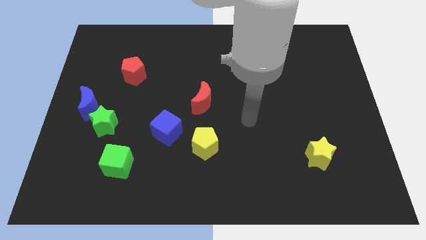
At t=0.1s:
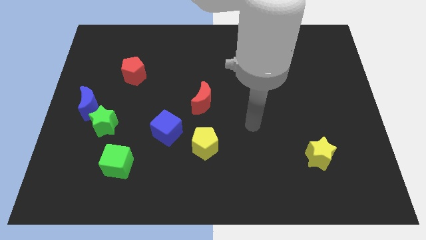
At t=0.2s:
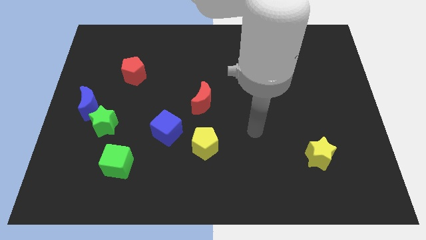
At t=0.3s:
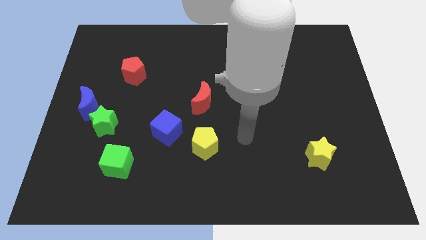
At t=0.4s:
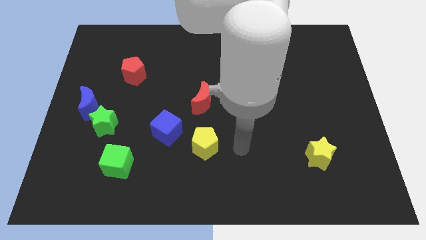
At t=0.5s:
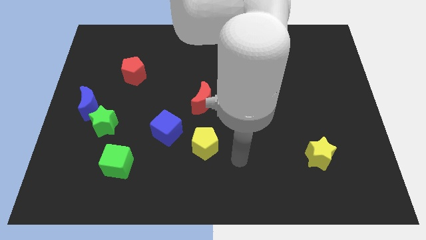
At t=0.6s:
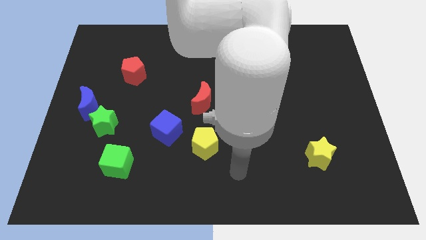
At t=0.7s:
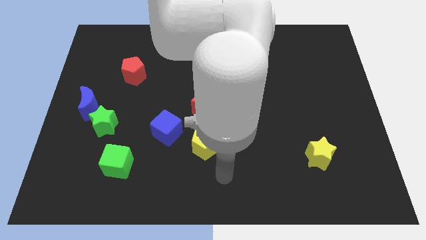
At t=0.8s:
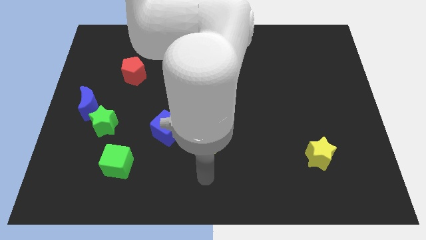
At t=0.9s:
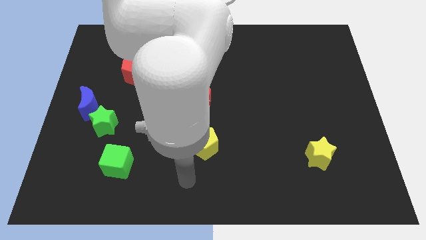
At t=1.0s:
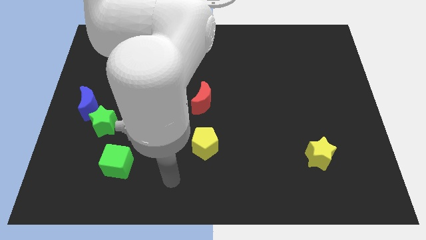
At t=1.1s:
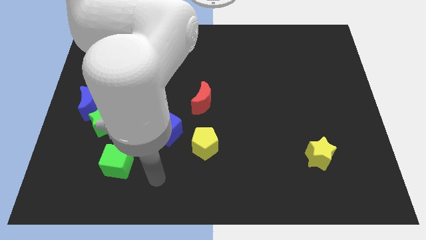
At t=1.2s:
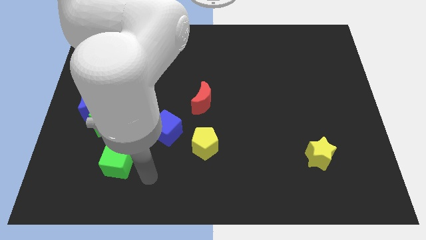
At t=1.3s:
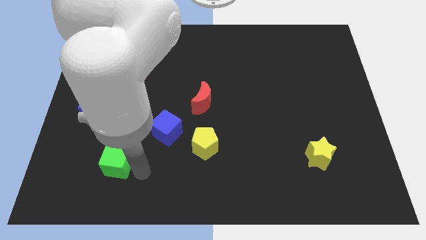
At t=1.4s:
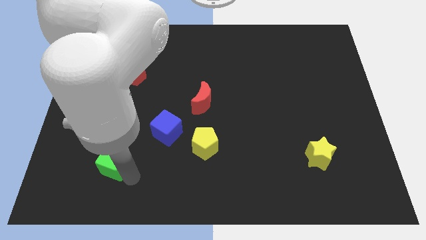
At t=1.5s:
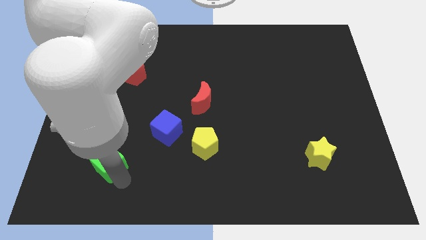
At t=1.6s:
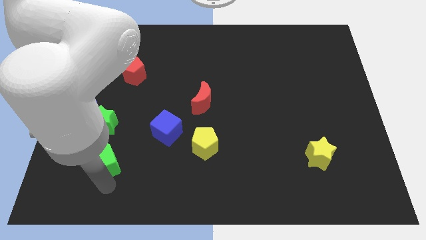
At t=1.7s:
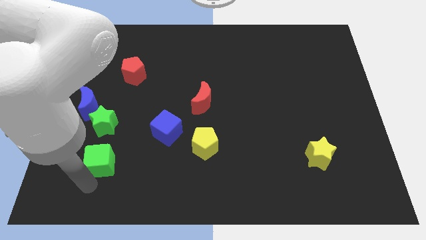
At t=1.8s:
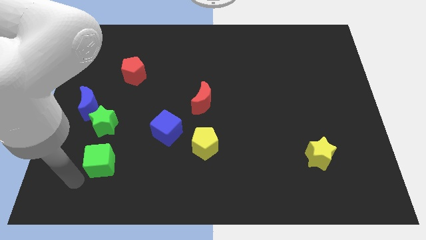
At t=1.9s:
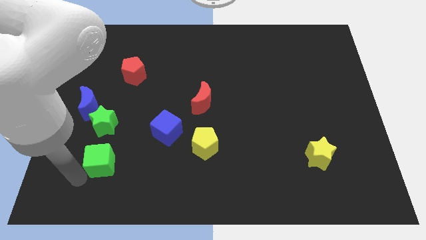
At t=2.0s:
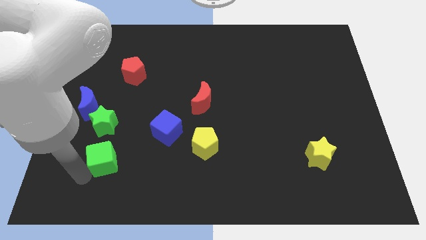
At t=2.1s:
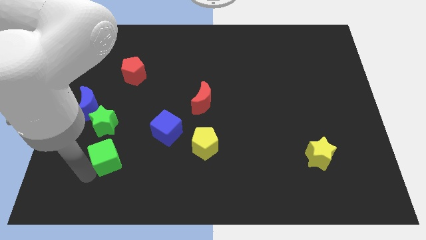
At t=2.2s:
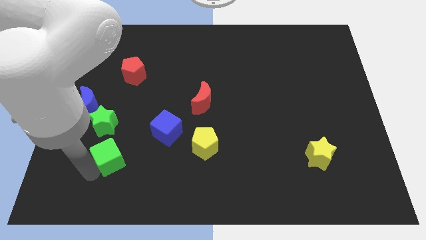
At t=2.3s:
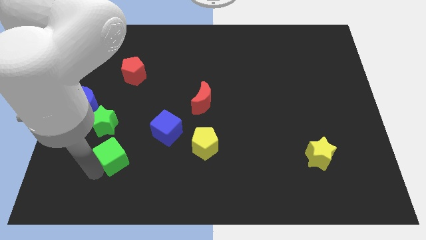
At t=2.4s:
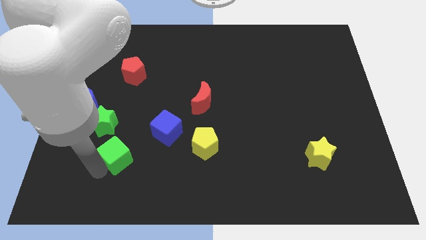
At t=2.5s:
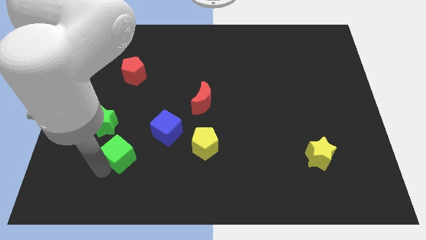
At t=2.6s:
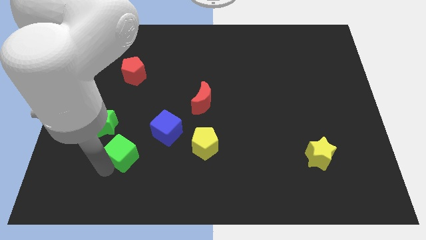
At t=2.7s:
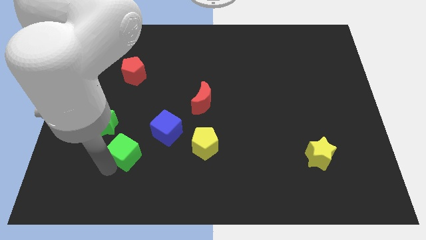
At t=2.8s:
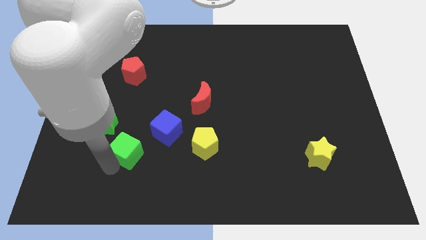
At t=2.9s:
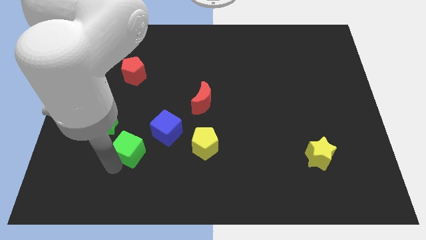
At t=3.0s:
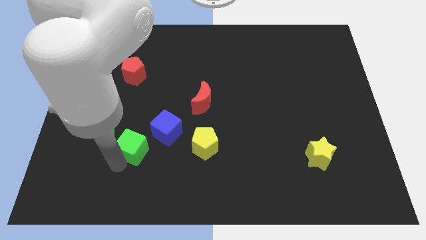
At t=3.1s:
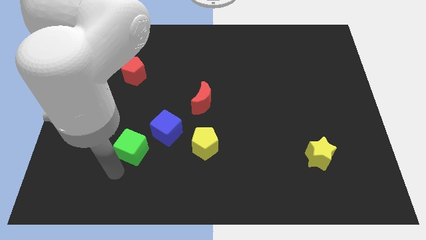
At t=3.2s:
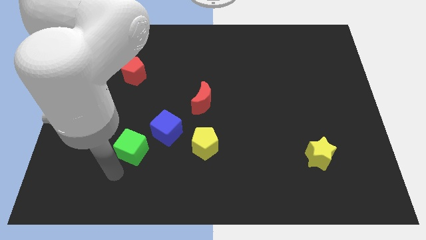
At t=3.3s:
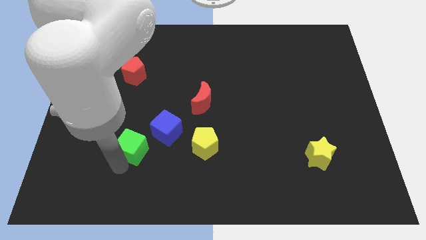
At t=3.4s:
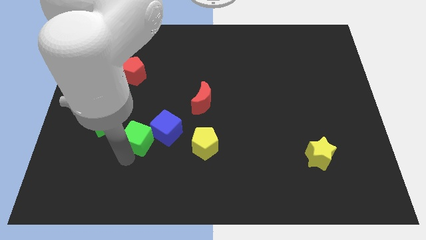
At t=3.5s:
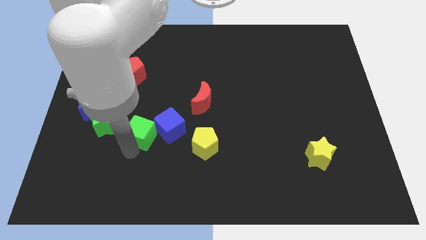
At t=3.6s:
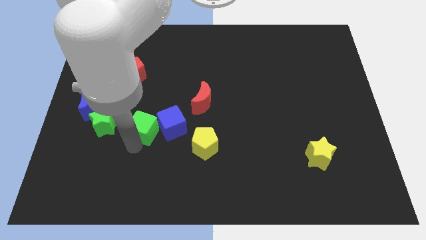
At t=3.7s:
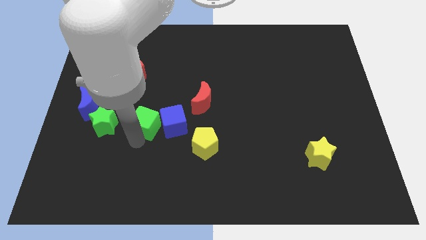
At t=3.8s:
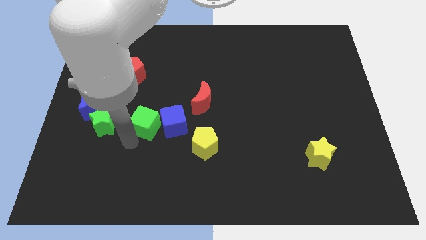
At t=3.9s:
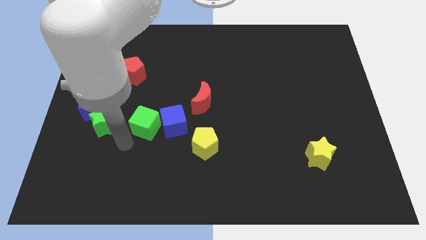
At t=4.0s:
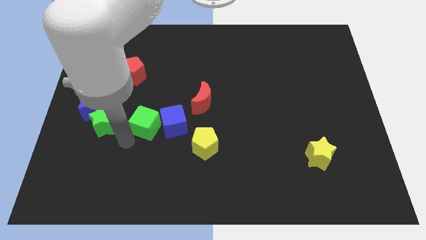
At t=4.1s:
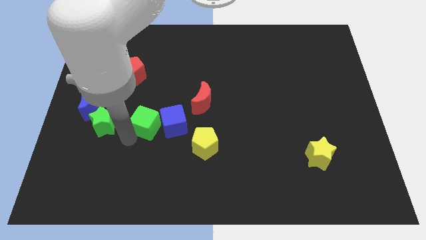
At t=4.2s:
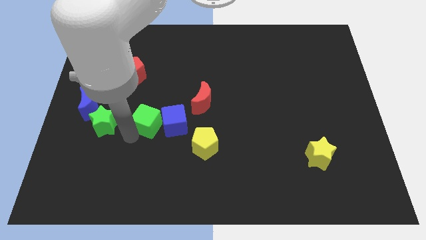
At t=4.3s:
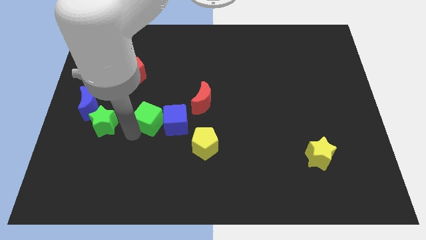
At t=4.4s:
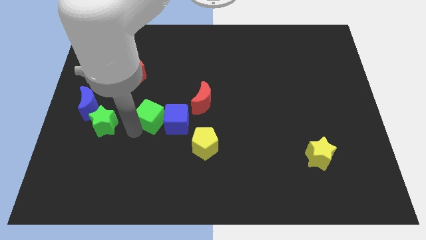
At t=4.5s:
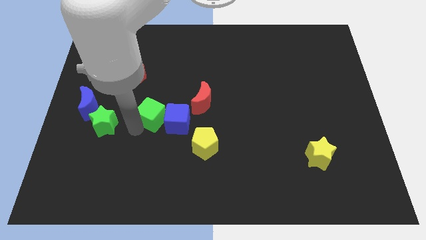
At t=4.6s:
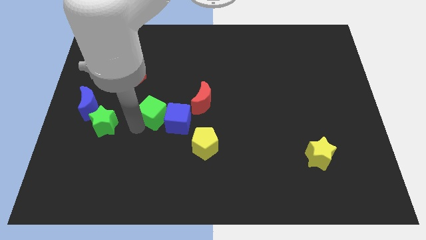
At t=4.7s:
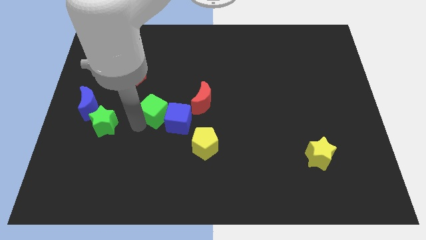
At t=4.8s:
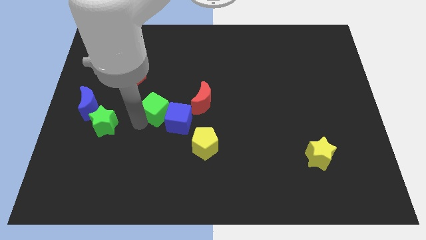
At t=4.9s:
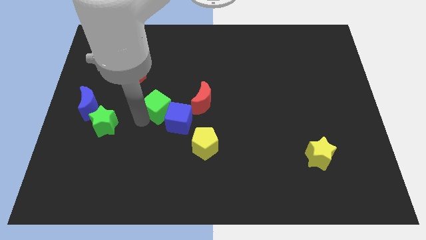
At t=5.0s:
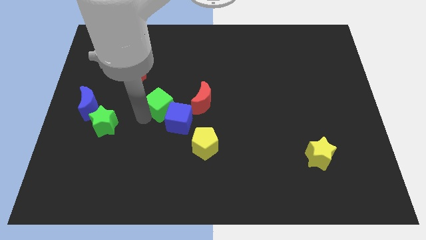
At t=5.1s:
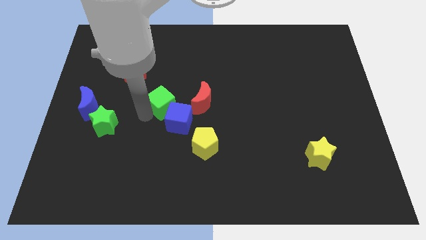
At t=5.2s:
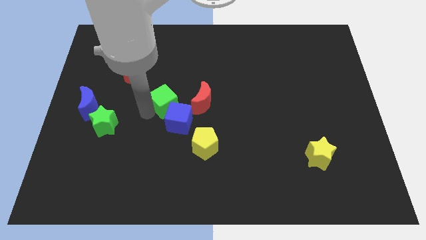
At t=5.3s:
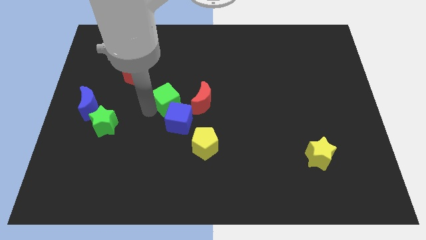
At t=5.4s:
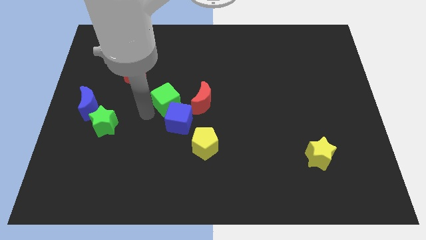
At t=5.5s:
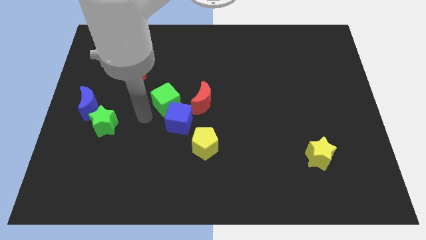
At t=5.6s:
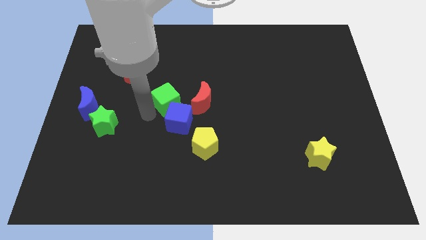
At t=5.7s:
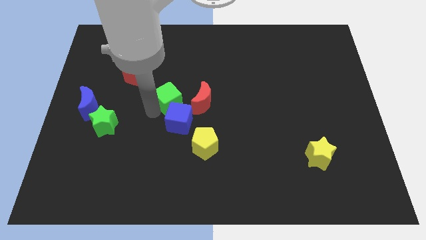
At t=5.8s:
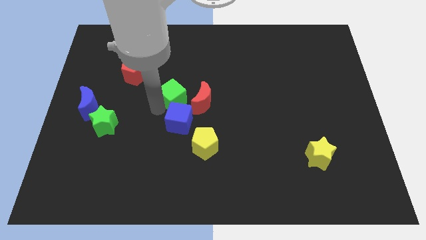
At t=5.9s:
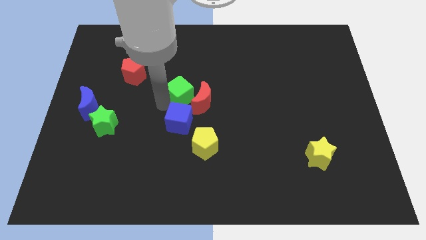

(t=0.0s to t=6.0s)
move the green cube up and to the right diagonally

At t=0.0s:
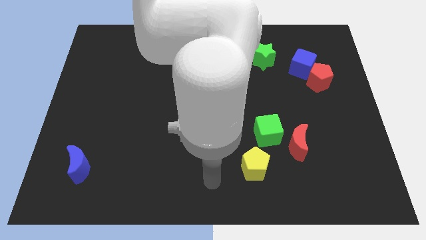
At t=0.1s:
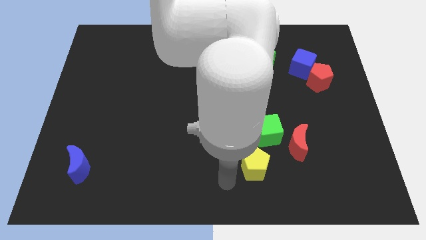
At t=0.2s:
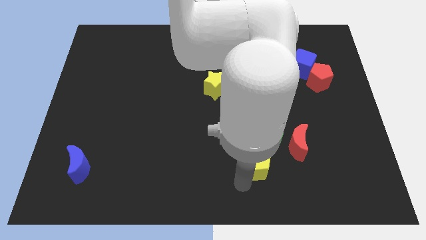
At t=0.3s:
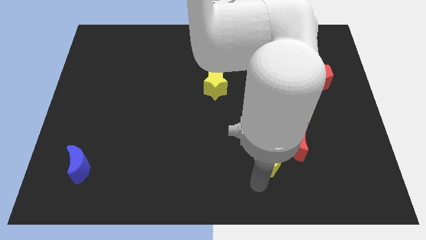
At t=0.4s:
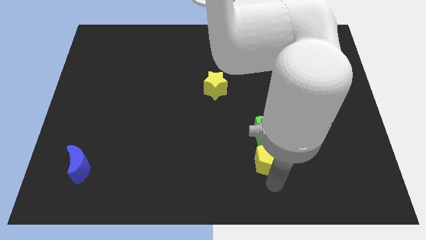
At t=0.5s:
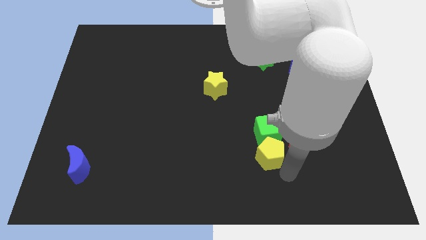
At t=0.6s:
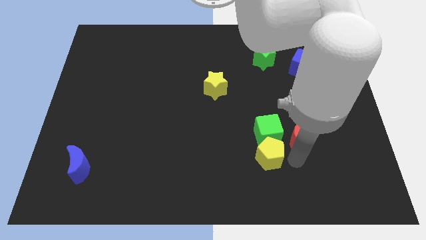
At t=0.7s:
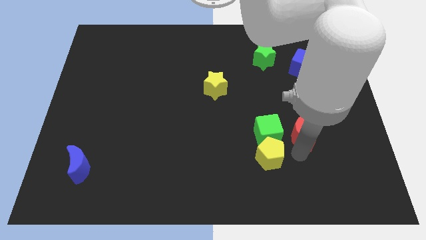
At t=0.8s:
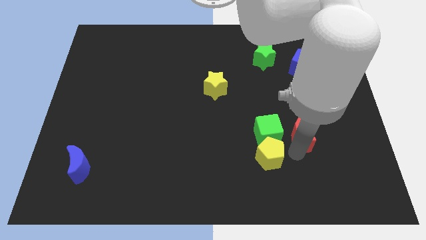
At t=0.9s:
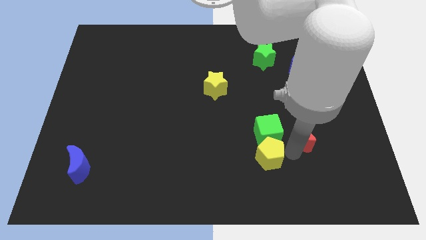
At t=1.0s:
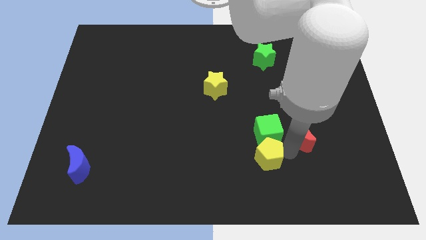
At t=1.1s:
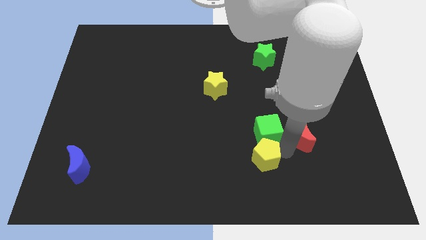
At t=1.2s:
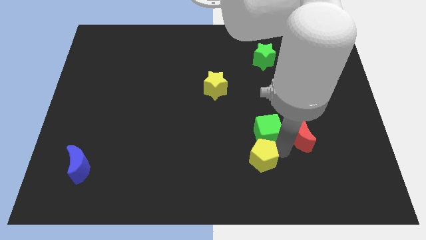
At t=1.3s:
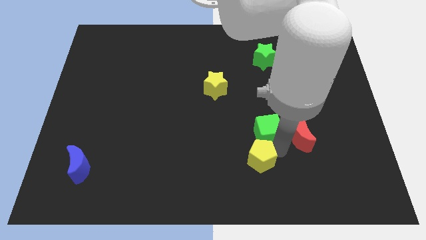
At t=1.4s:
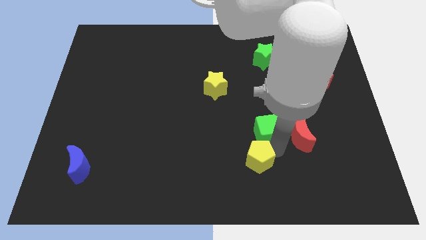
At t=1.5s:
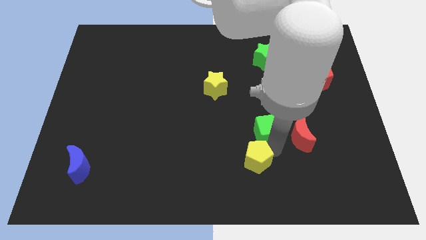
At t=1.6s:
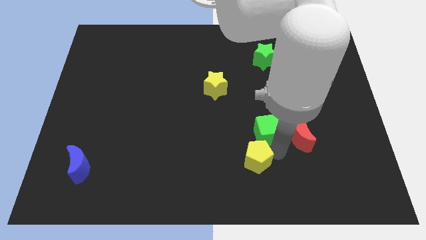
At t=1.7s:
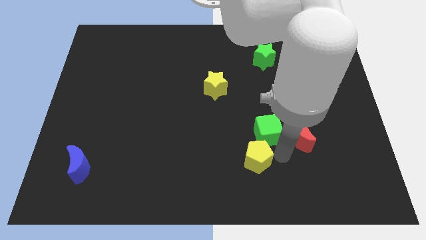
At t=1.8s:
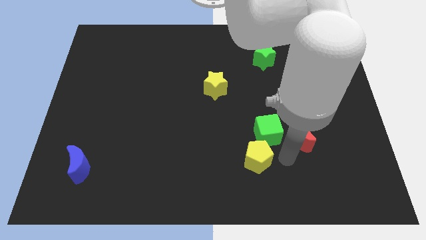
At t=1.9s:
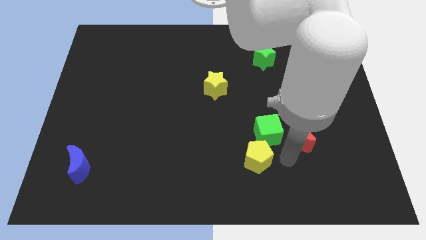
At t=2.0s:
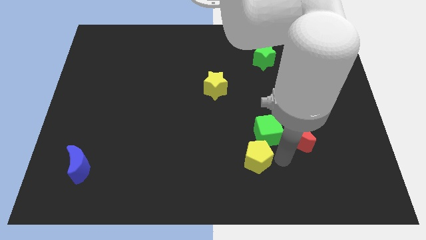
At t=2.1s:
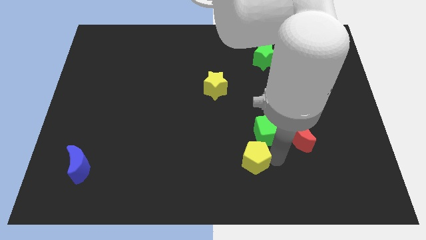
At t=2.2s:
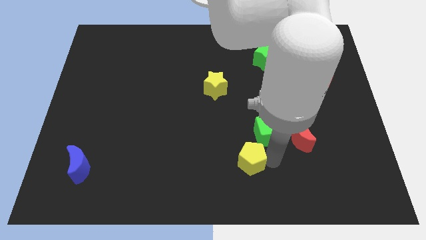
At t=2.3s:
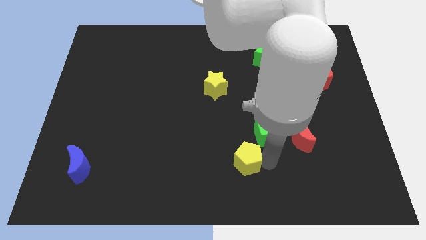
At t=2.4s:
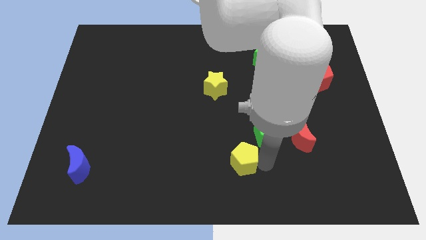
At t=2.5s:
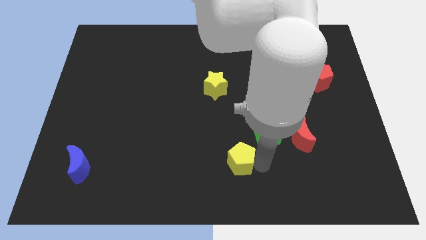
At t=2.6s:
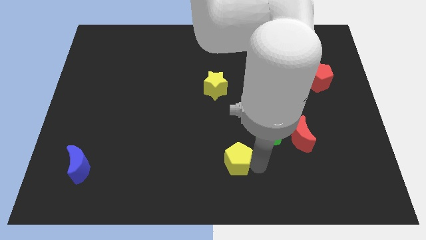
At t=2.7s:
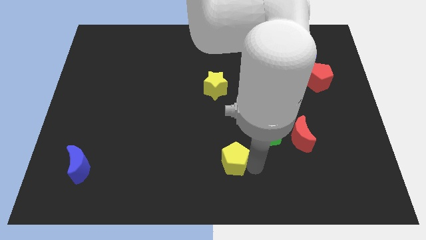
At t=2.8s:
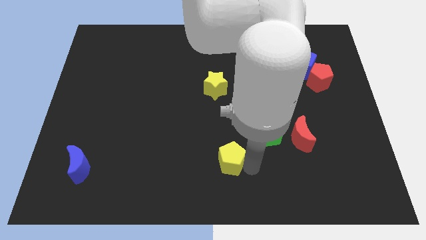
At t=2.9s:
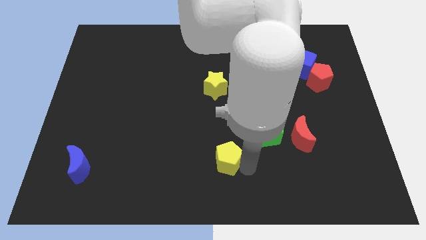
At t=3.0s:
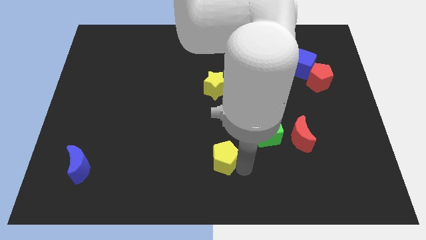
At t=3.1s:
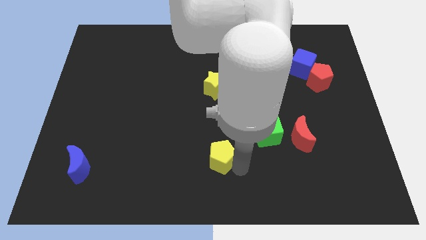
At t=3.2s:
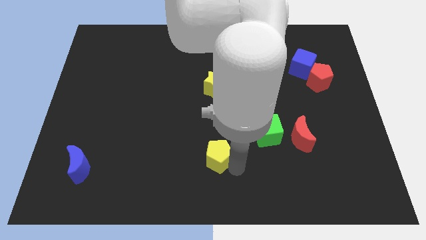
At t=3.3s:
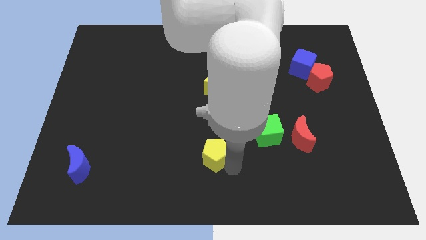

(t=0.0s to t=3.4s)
push the yellow pentagon a little bit upwards and then left
